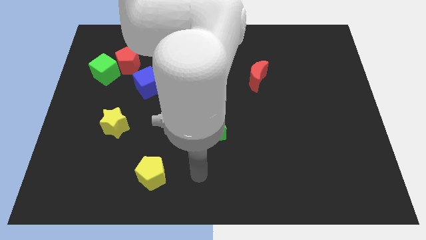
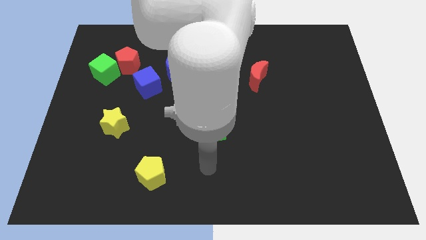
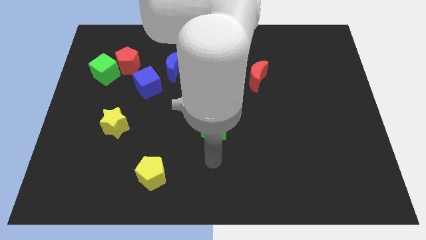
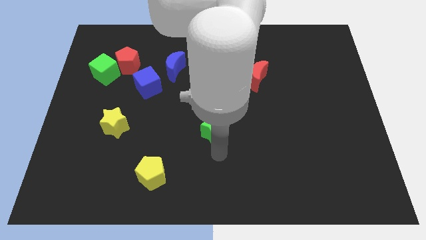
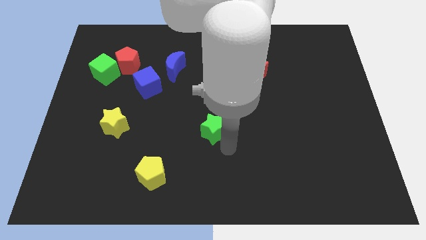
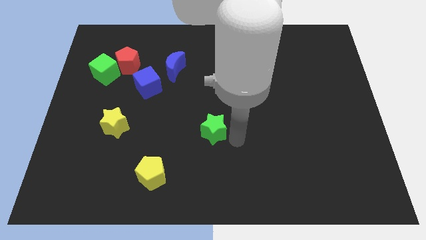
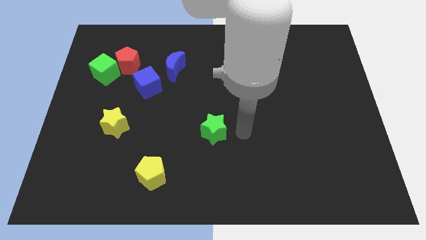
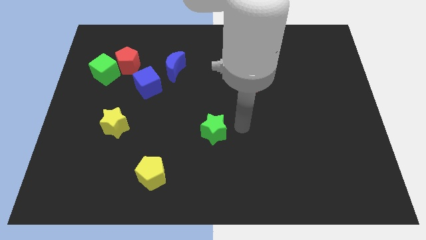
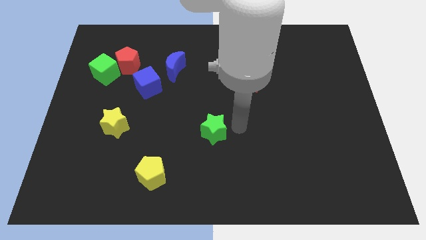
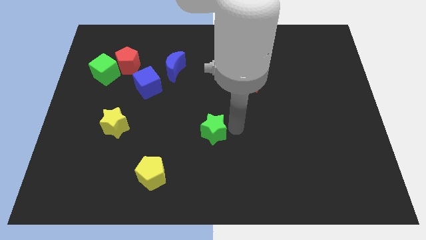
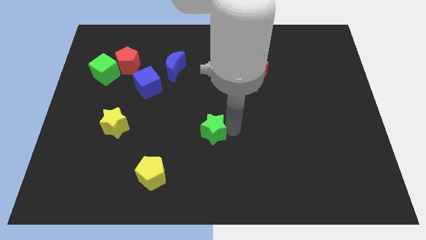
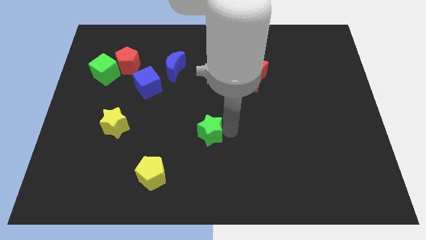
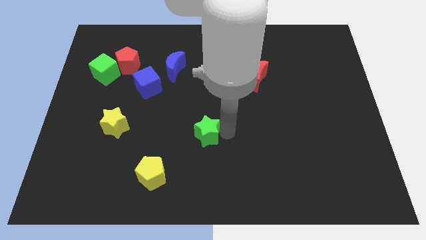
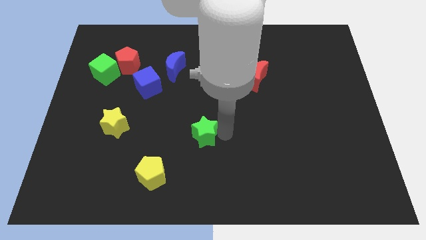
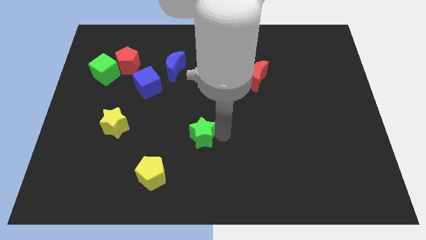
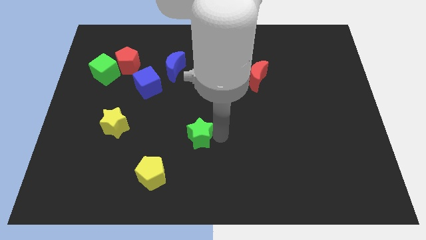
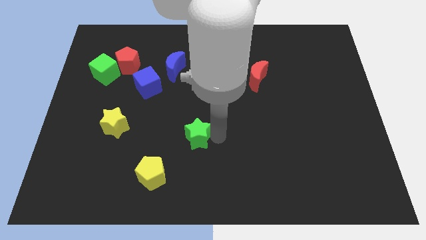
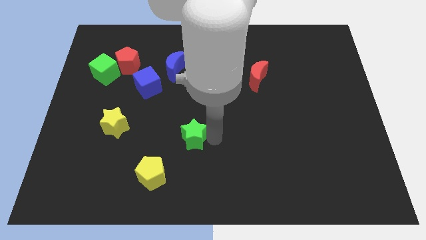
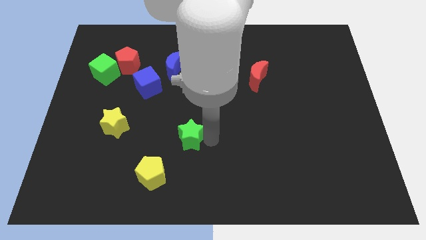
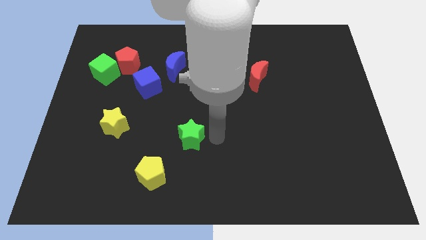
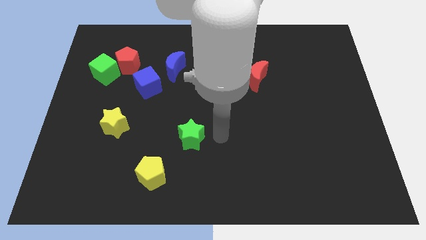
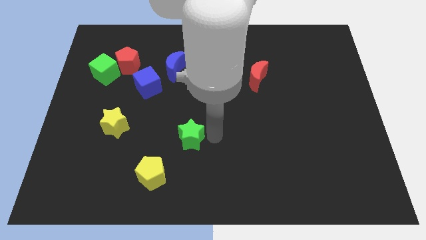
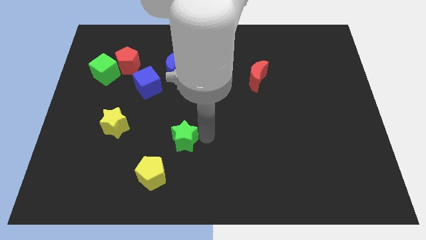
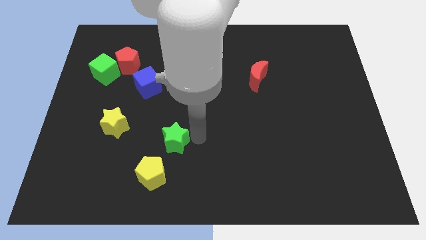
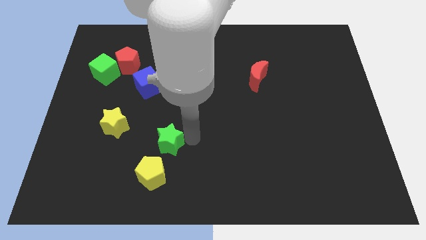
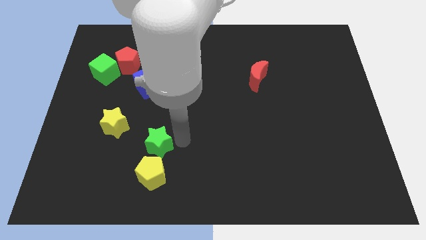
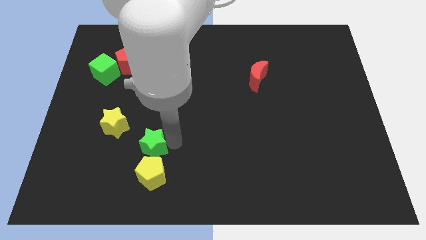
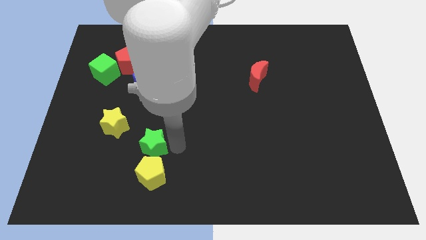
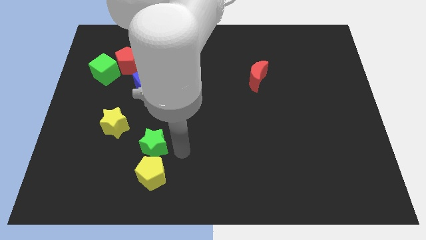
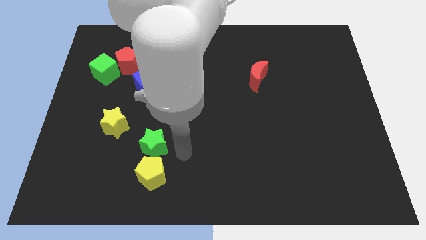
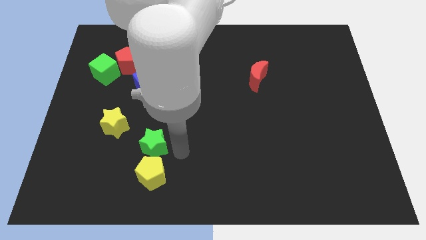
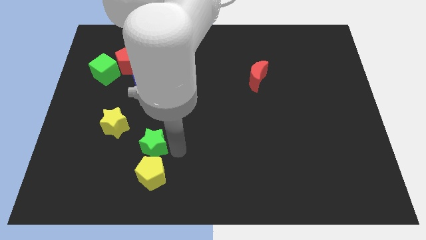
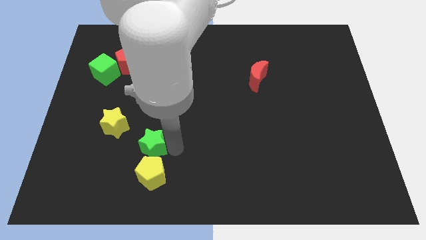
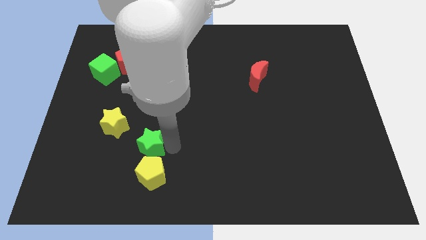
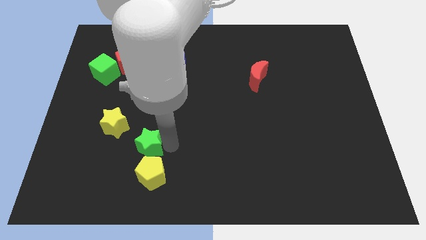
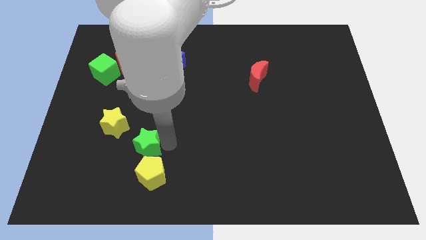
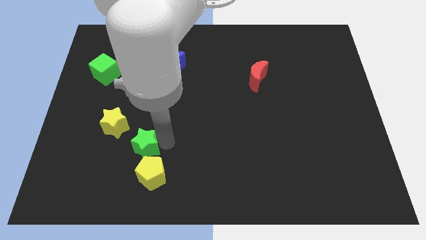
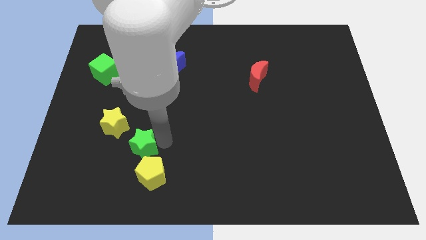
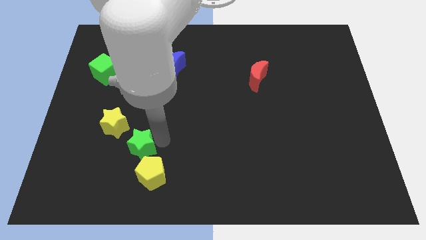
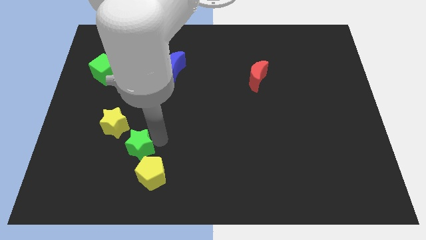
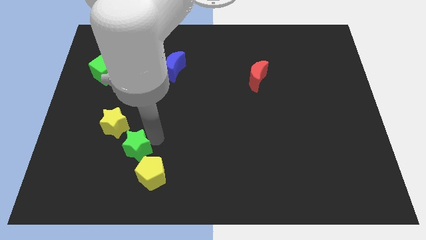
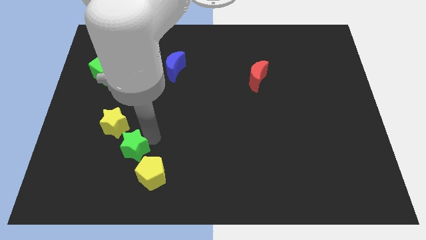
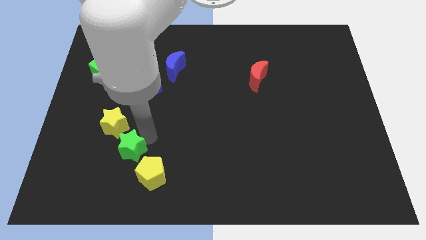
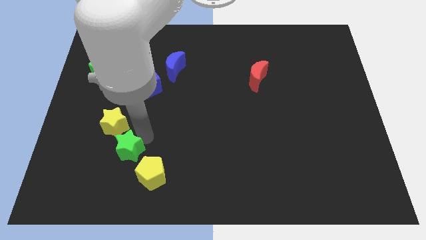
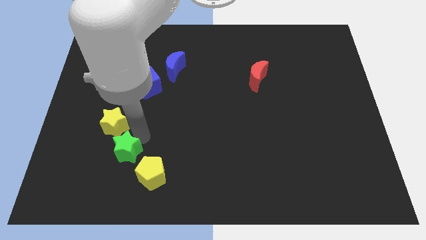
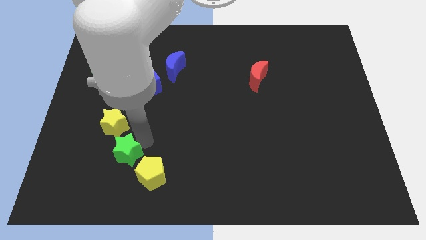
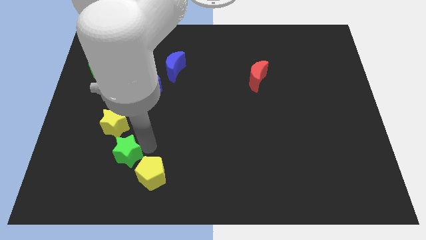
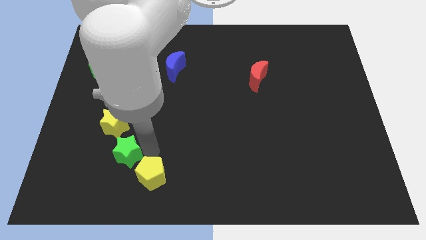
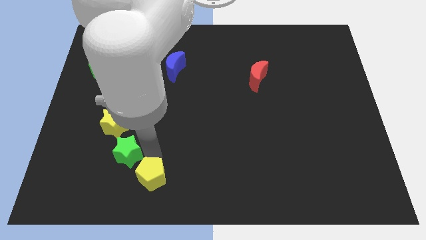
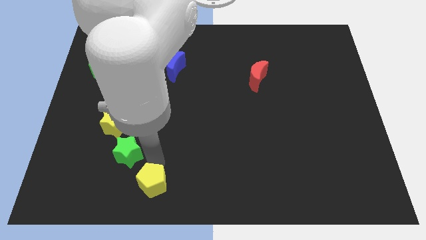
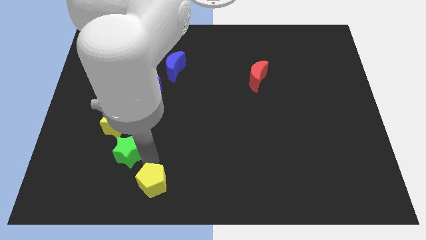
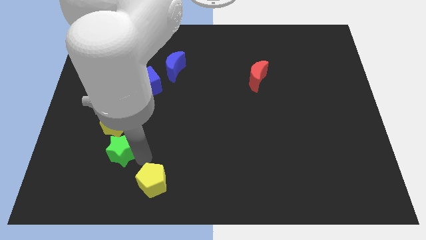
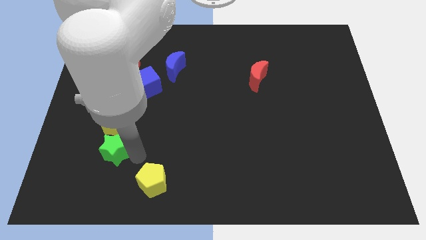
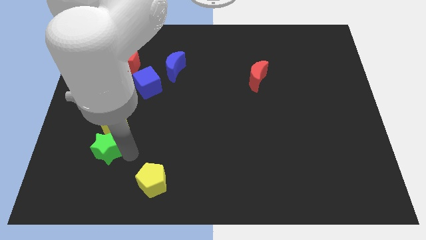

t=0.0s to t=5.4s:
push the green star diagonally down and to the left of the yellow star

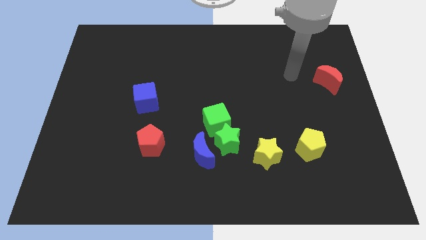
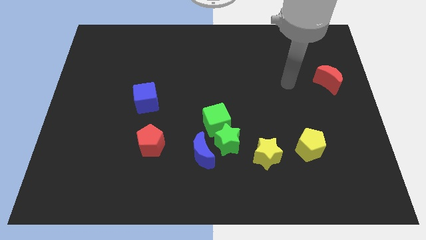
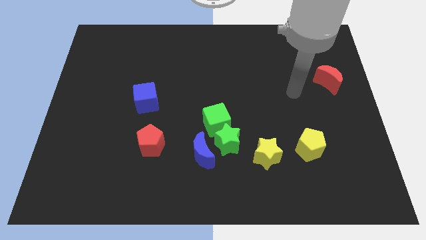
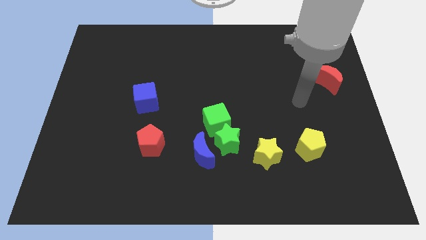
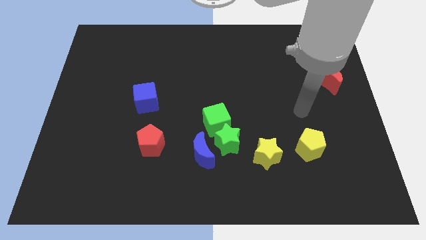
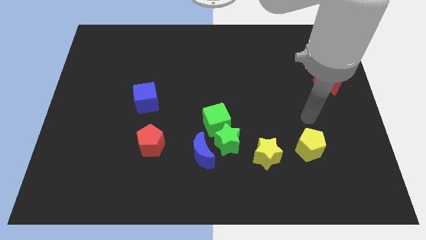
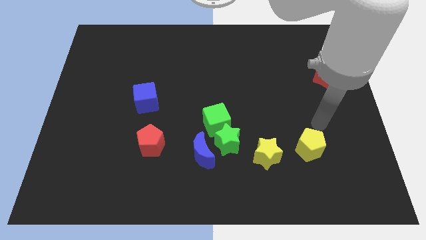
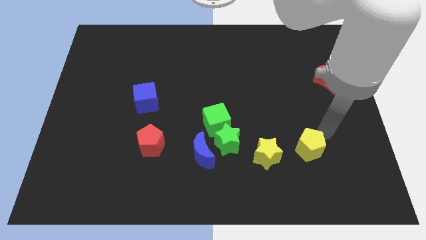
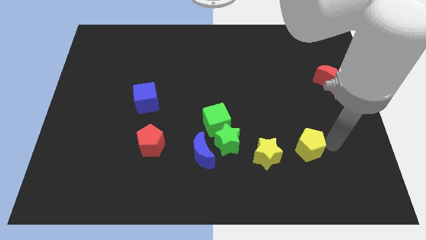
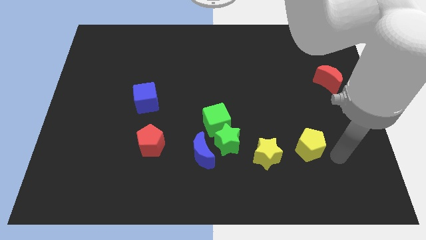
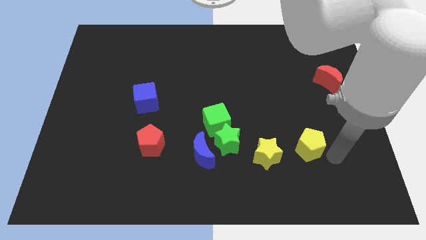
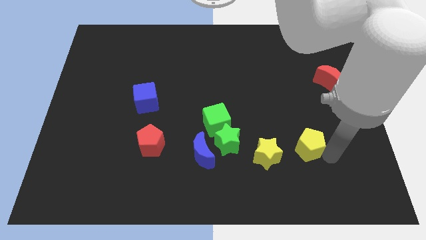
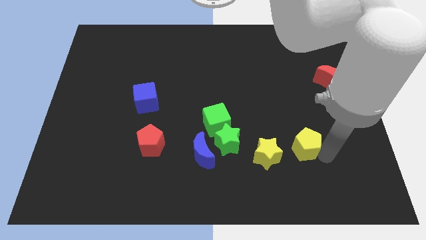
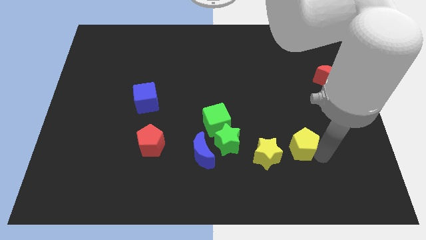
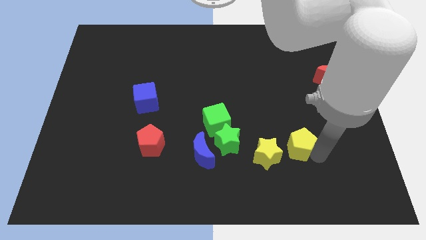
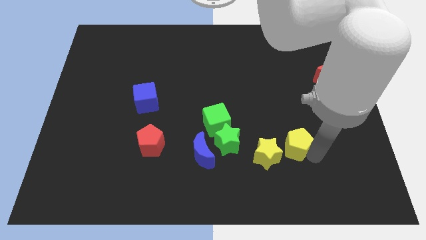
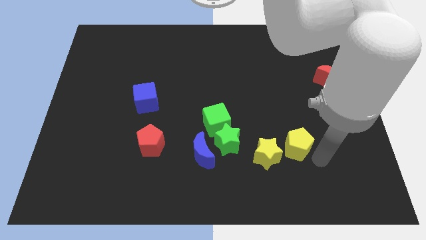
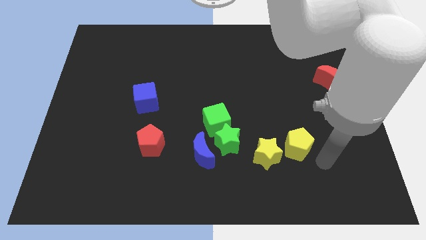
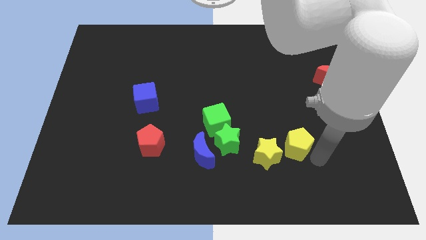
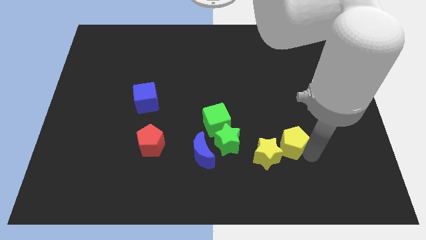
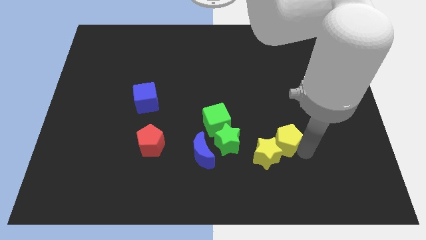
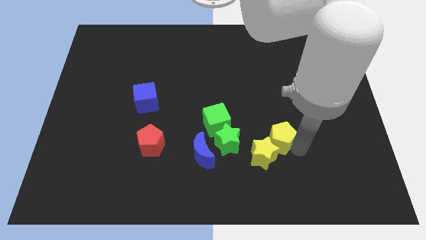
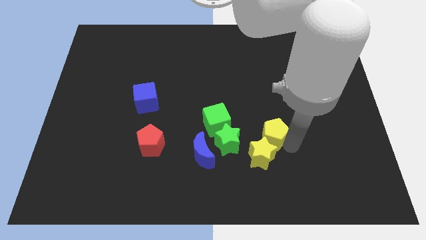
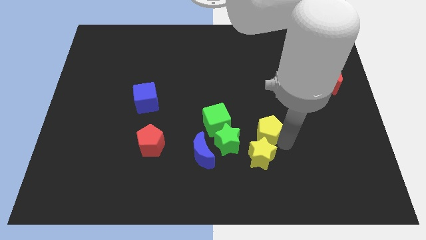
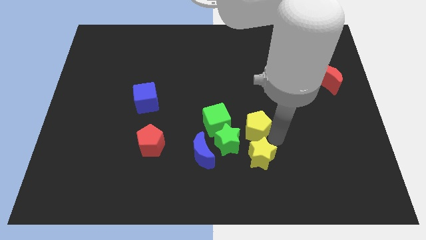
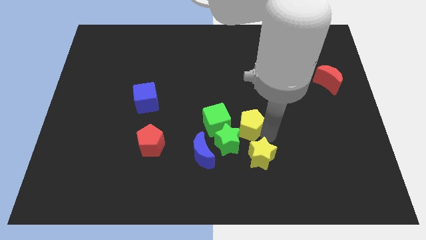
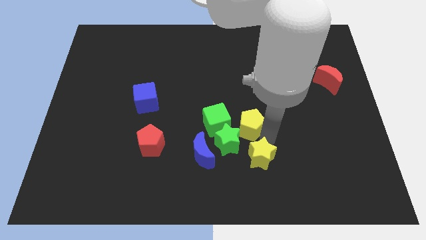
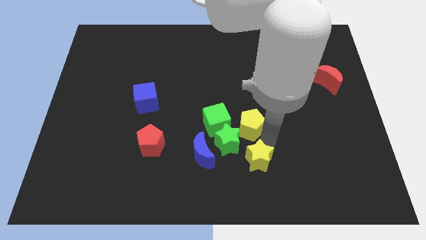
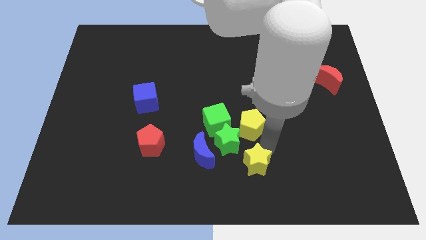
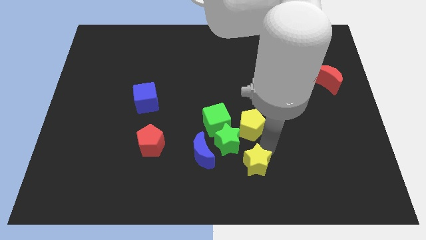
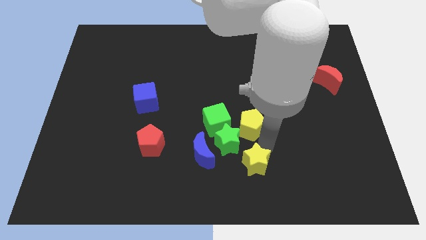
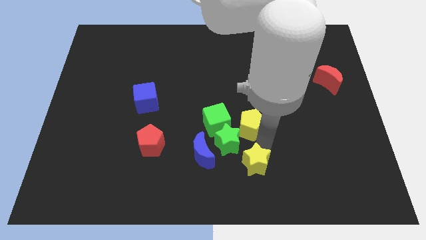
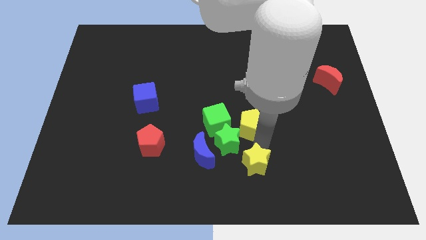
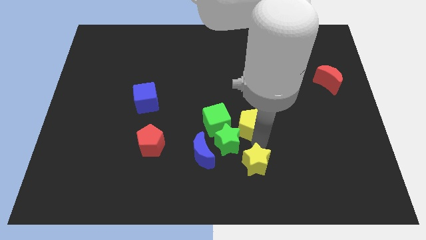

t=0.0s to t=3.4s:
move the yellow pentagon above the green star
